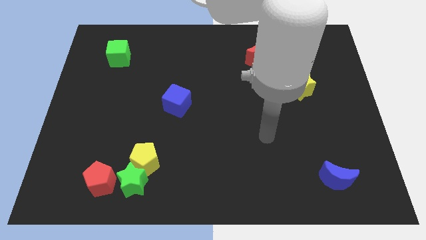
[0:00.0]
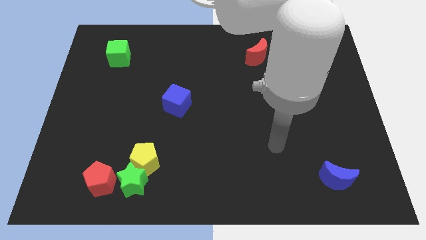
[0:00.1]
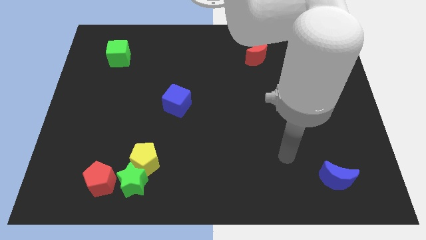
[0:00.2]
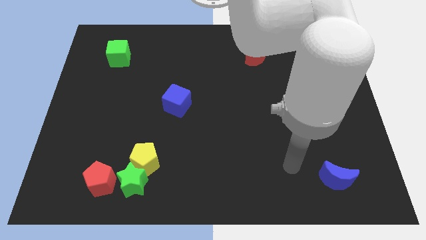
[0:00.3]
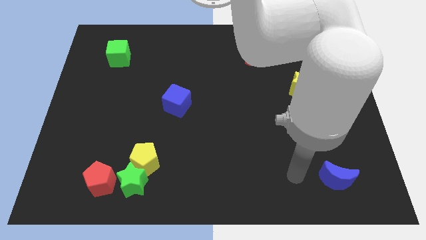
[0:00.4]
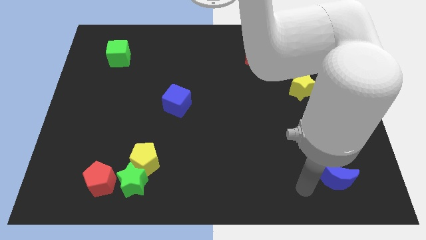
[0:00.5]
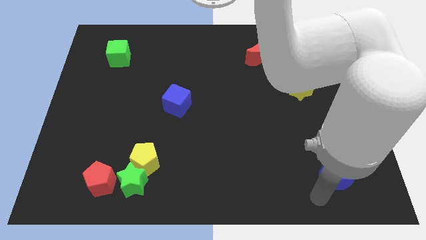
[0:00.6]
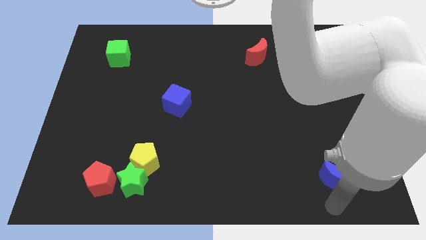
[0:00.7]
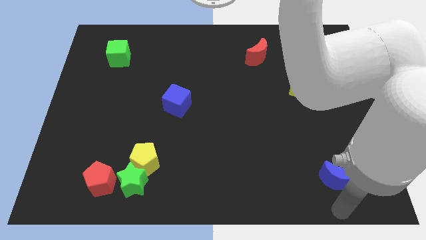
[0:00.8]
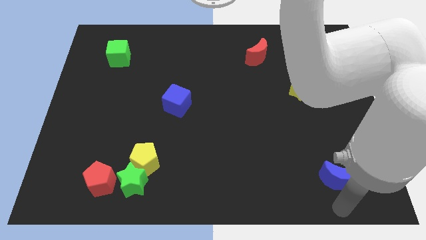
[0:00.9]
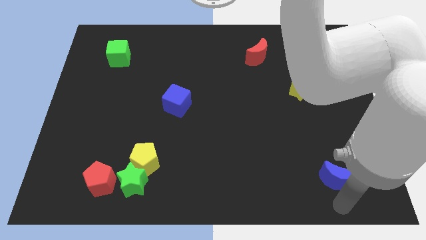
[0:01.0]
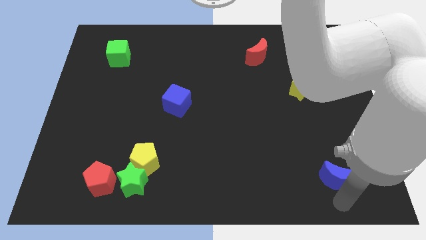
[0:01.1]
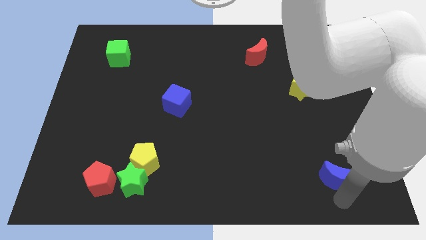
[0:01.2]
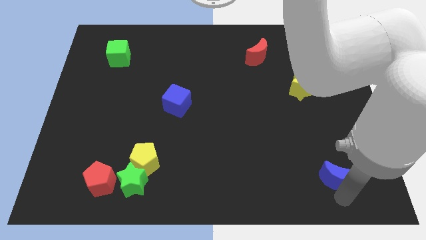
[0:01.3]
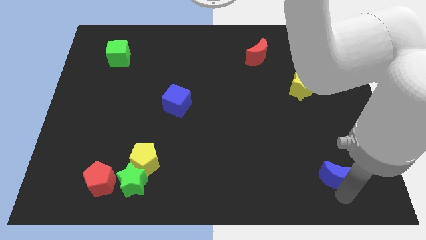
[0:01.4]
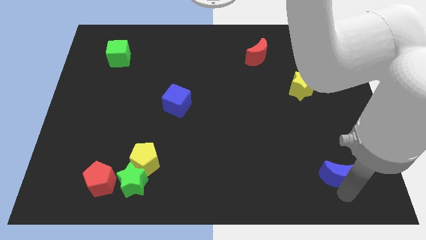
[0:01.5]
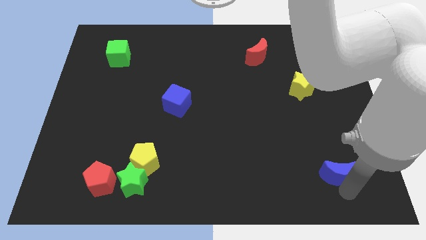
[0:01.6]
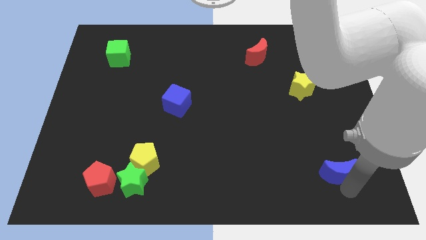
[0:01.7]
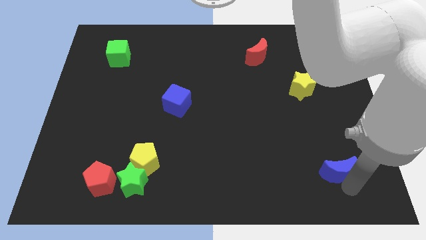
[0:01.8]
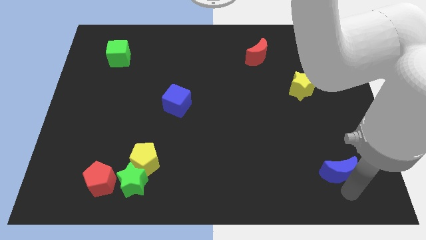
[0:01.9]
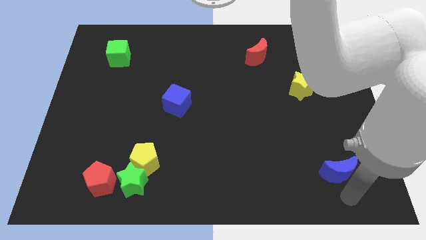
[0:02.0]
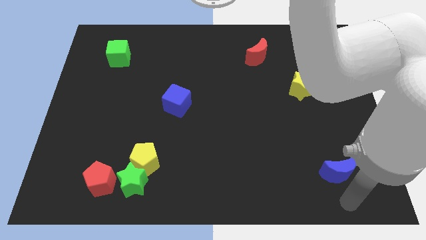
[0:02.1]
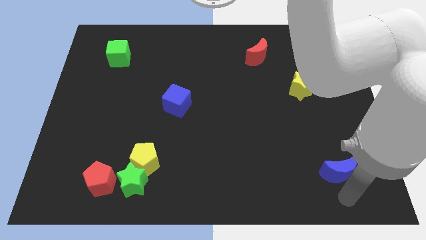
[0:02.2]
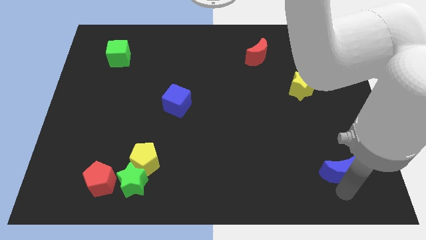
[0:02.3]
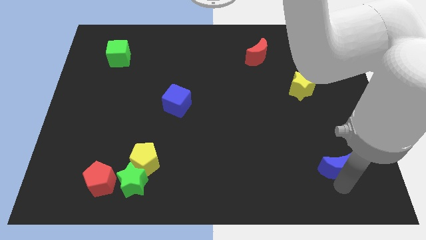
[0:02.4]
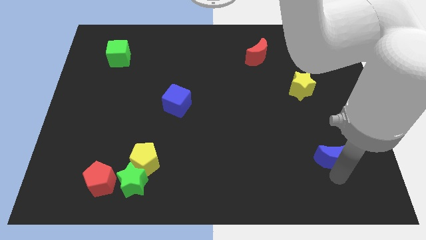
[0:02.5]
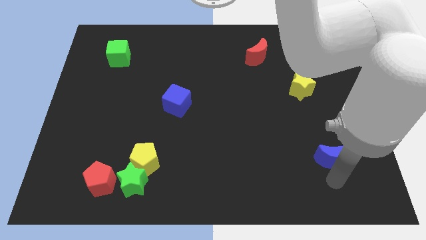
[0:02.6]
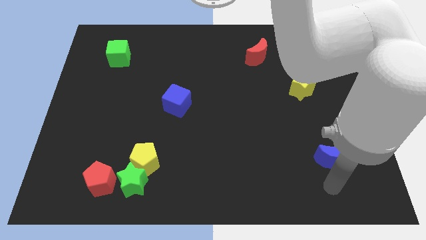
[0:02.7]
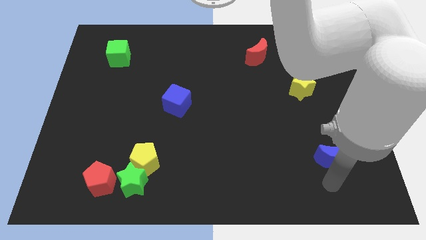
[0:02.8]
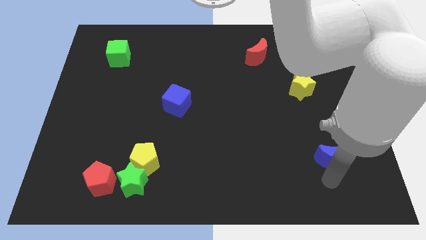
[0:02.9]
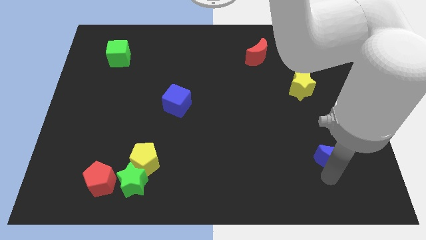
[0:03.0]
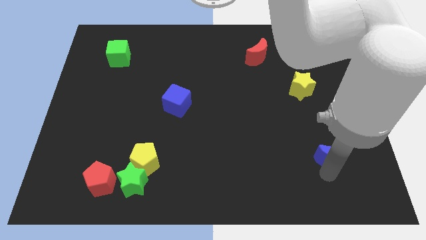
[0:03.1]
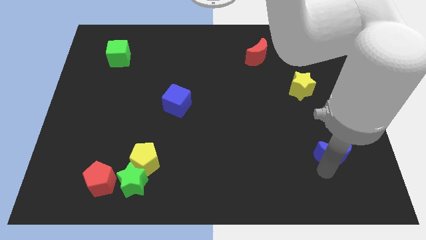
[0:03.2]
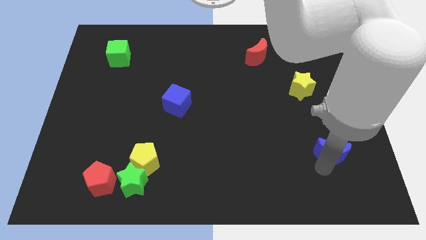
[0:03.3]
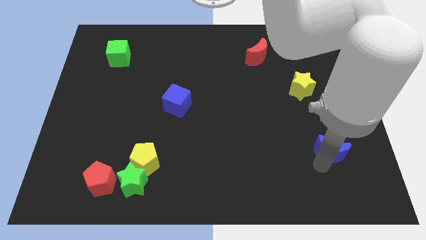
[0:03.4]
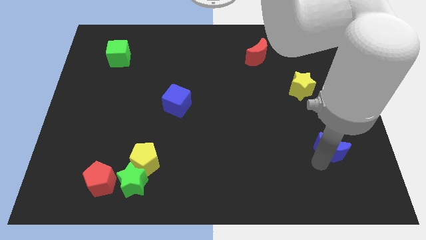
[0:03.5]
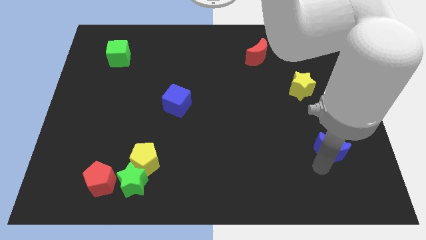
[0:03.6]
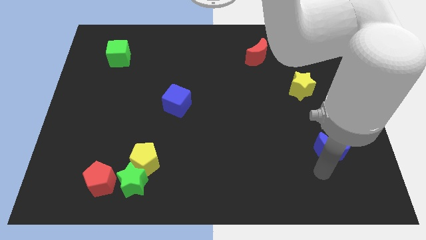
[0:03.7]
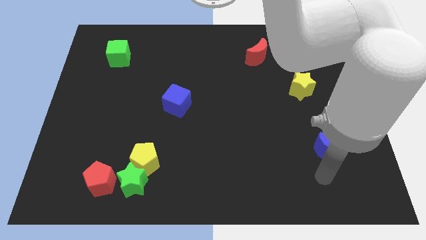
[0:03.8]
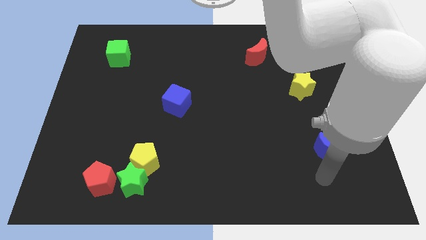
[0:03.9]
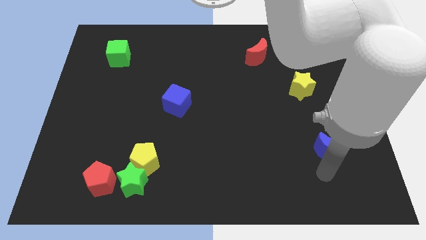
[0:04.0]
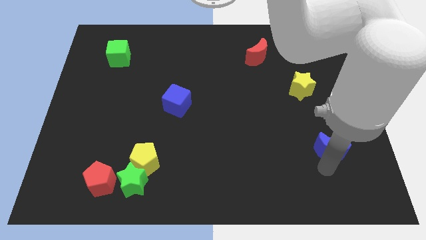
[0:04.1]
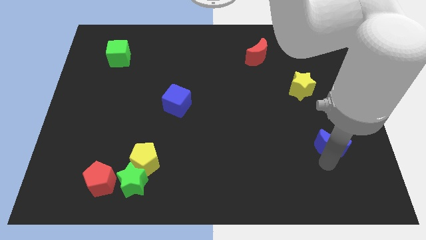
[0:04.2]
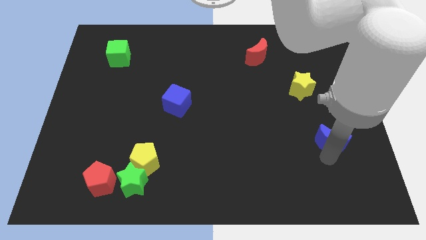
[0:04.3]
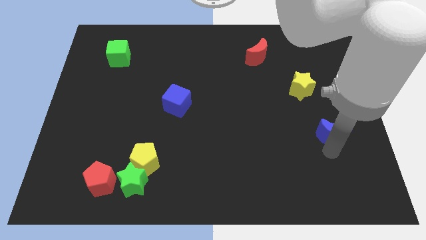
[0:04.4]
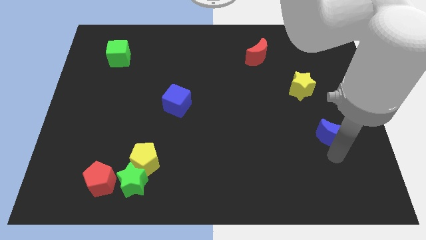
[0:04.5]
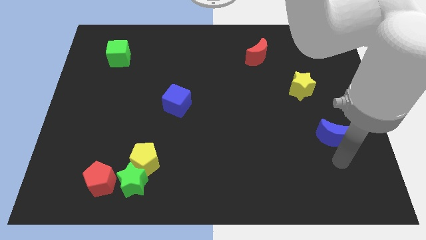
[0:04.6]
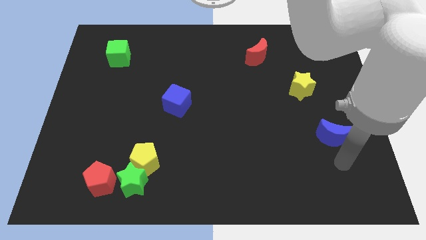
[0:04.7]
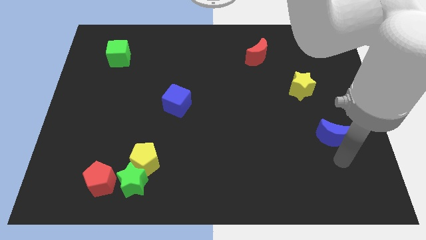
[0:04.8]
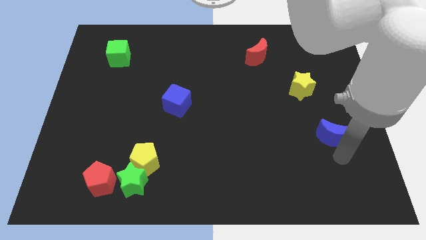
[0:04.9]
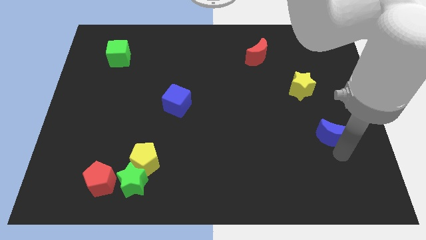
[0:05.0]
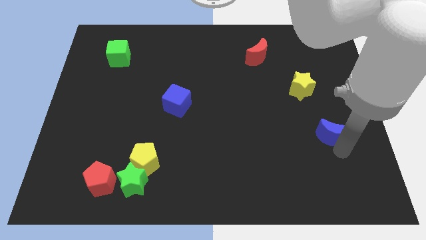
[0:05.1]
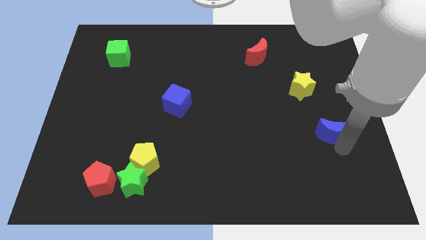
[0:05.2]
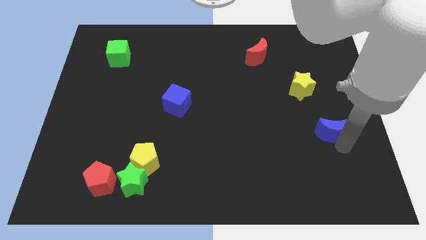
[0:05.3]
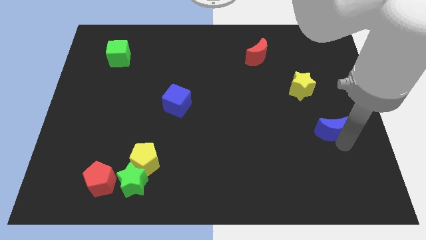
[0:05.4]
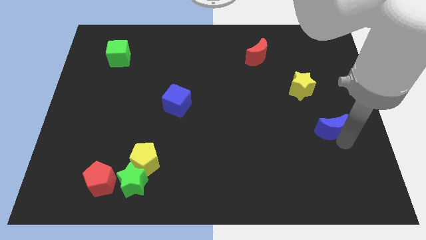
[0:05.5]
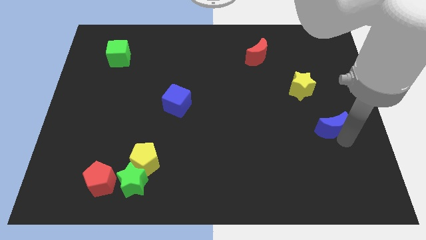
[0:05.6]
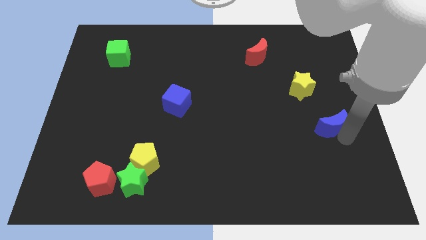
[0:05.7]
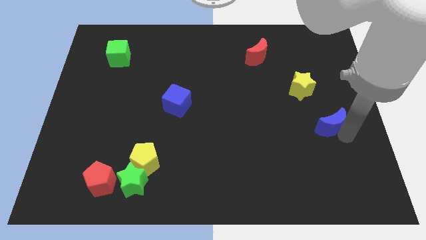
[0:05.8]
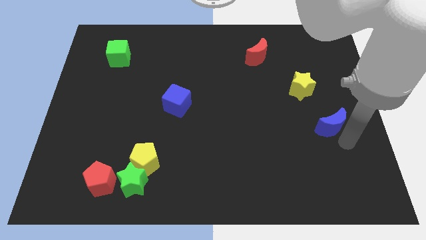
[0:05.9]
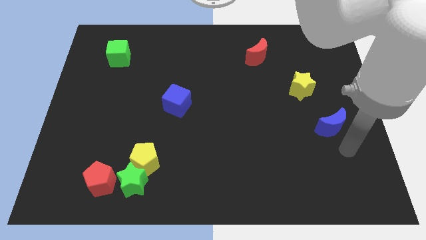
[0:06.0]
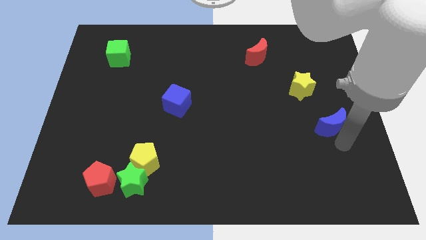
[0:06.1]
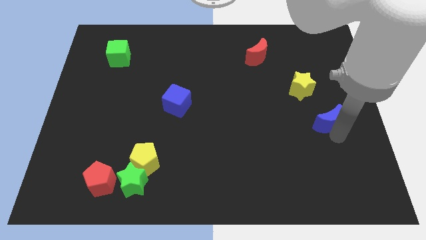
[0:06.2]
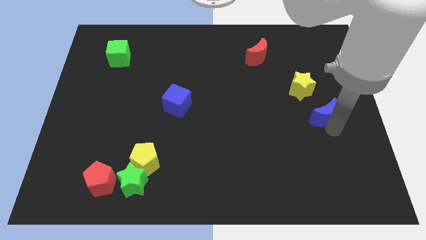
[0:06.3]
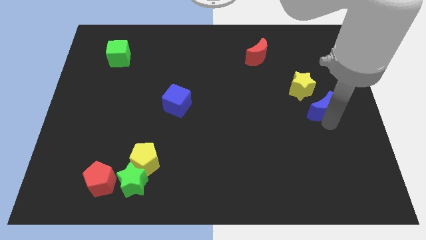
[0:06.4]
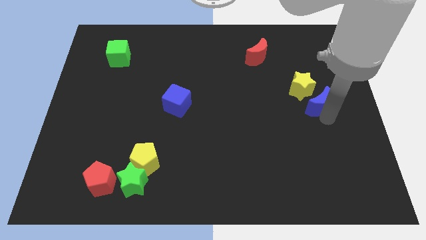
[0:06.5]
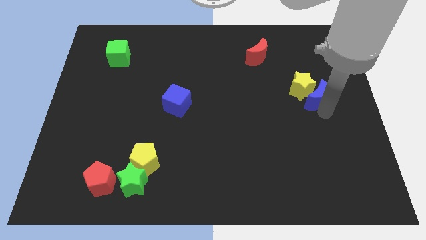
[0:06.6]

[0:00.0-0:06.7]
push the blue moon close to the yellow star

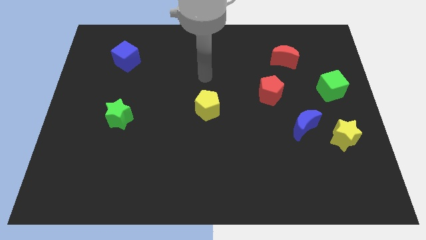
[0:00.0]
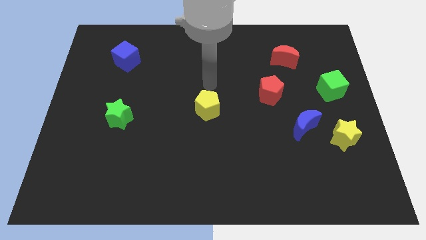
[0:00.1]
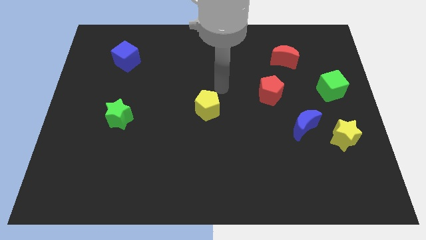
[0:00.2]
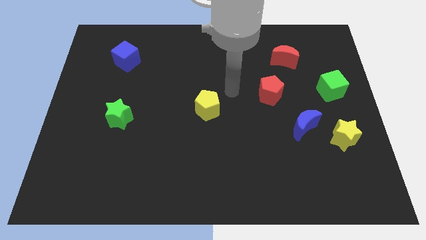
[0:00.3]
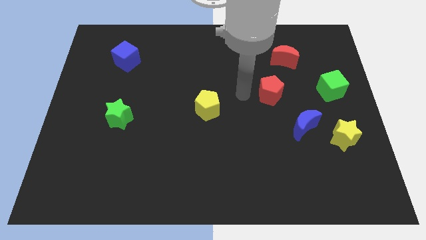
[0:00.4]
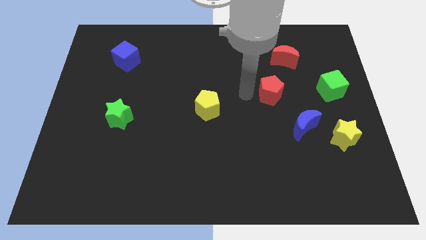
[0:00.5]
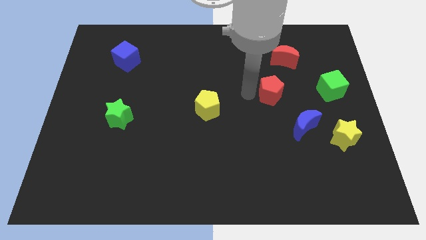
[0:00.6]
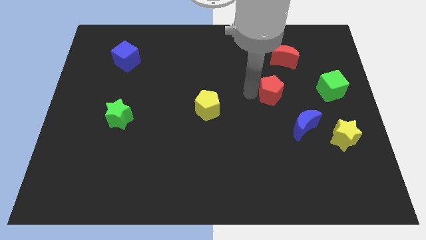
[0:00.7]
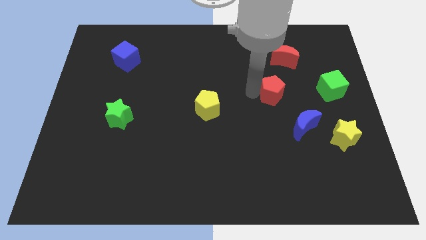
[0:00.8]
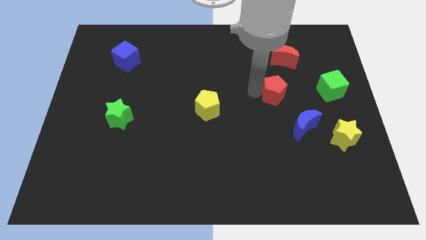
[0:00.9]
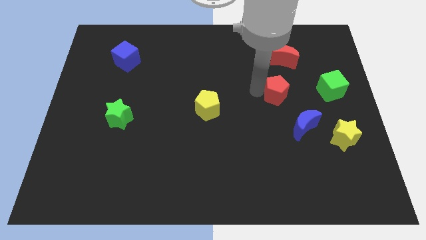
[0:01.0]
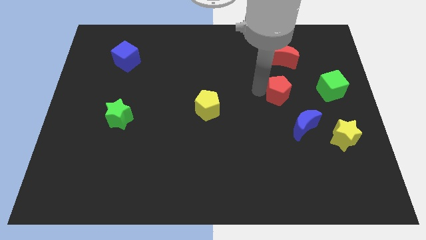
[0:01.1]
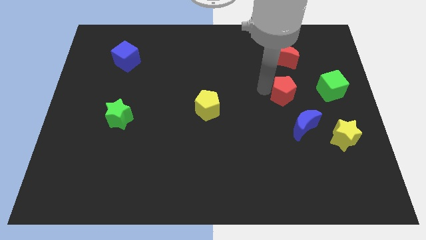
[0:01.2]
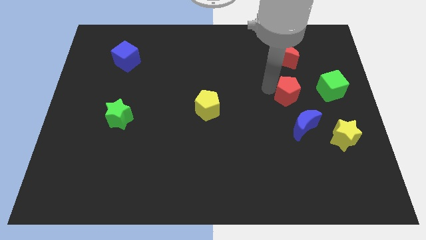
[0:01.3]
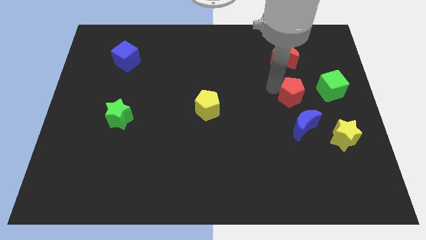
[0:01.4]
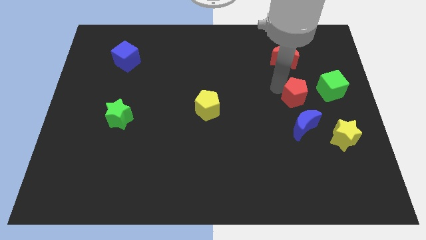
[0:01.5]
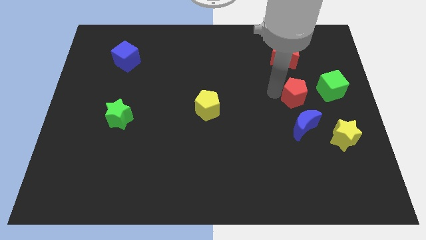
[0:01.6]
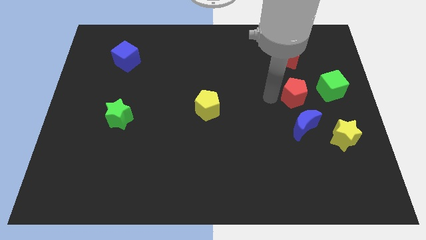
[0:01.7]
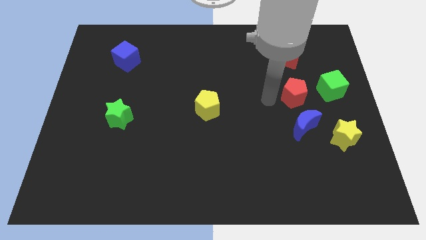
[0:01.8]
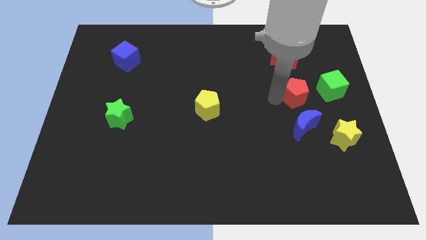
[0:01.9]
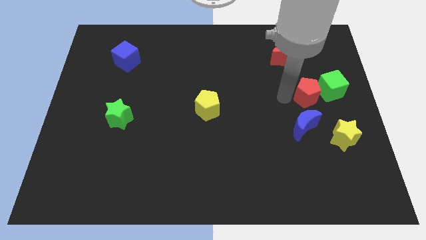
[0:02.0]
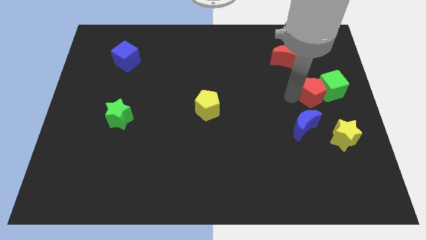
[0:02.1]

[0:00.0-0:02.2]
put the red pentagon close to the green cube
